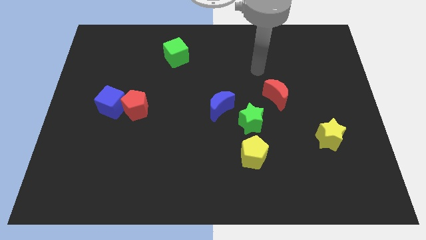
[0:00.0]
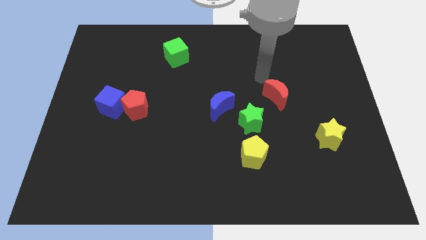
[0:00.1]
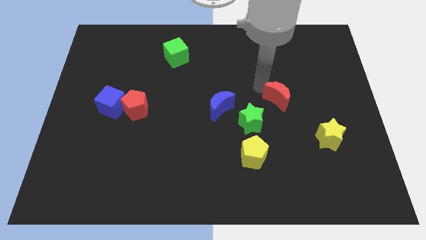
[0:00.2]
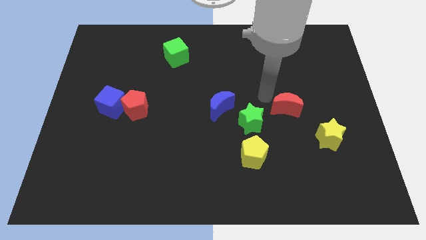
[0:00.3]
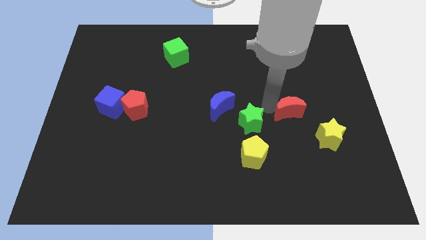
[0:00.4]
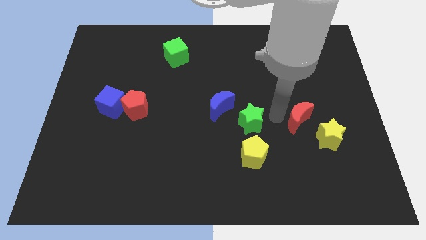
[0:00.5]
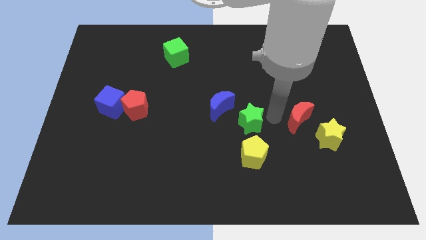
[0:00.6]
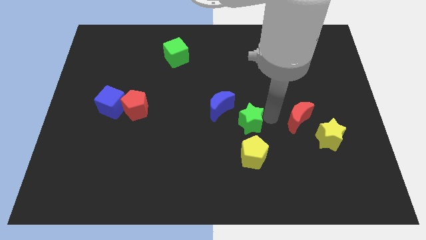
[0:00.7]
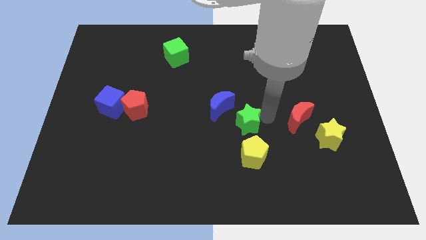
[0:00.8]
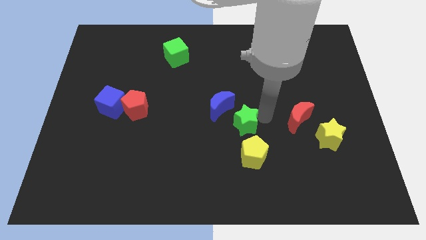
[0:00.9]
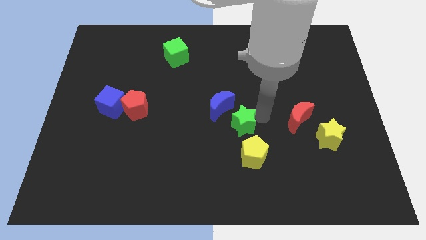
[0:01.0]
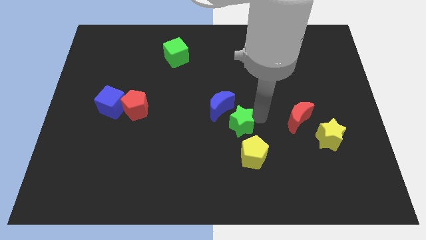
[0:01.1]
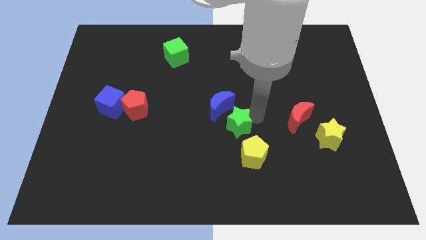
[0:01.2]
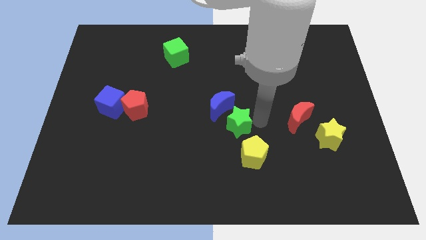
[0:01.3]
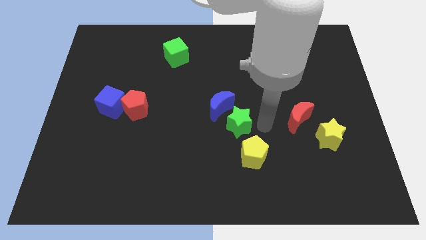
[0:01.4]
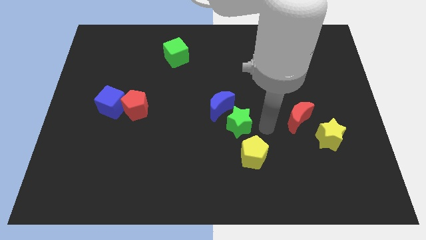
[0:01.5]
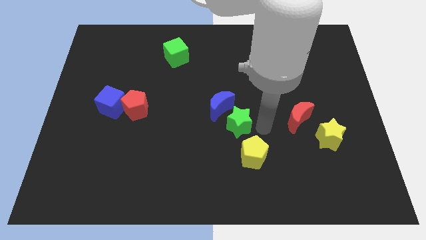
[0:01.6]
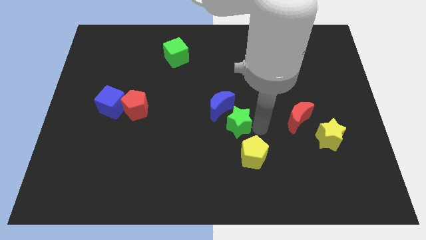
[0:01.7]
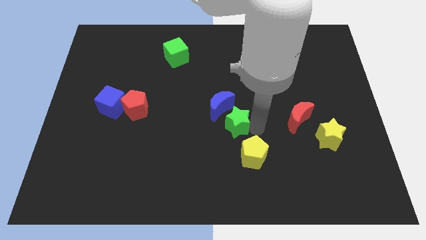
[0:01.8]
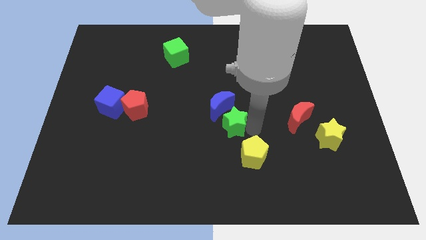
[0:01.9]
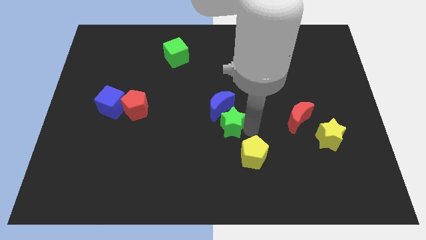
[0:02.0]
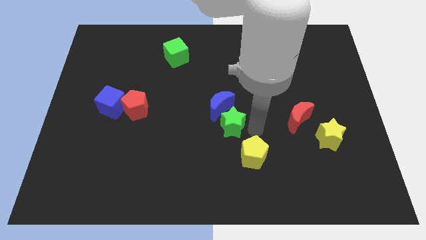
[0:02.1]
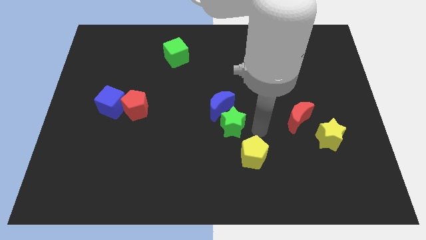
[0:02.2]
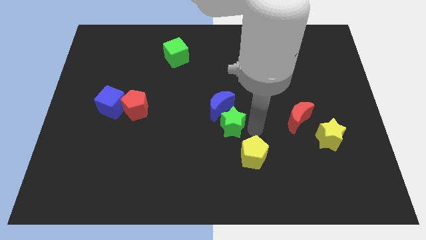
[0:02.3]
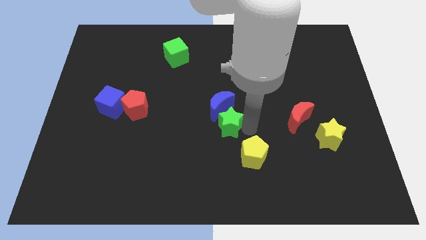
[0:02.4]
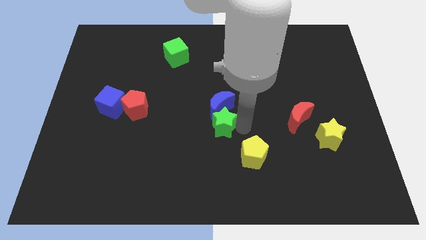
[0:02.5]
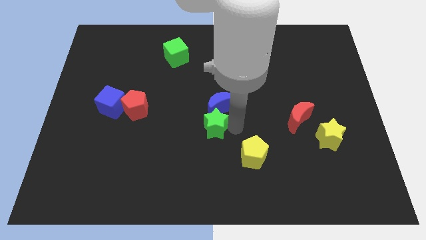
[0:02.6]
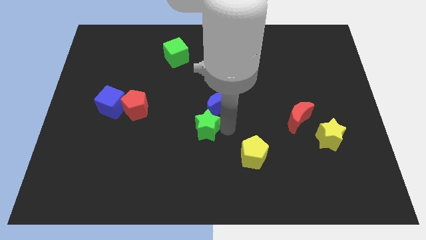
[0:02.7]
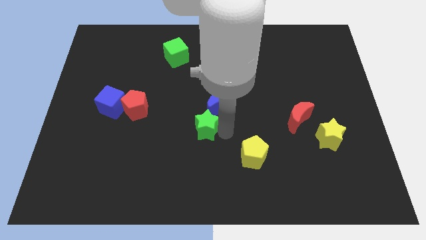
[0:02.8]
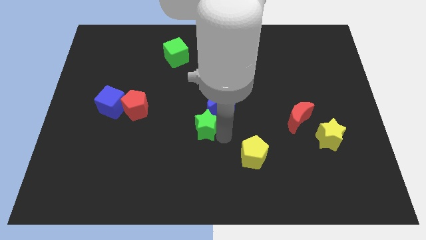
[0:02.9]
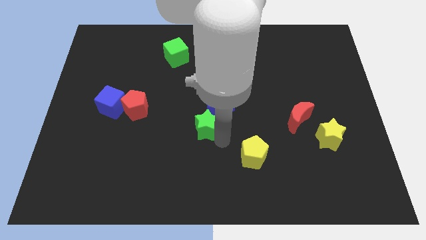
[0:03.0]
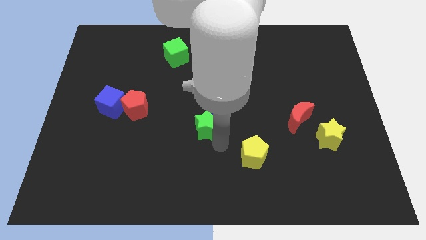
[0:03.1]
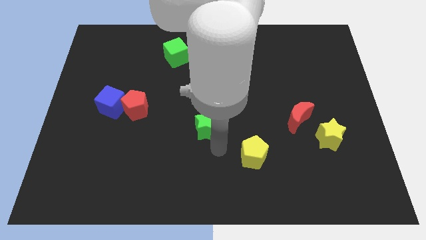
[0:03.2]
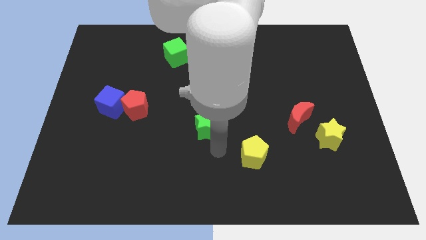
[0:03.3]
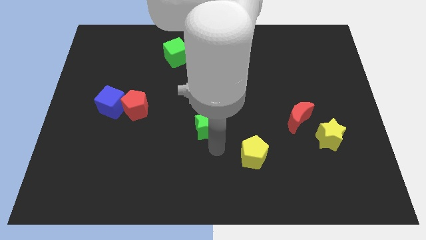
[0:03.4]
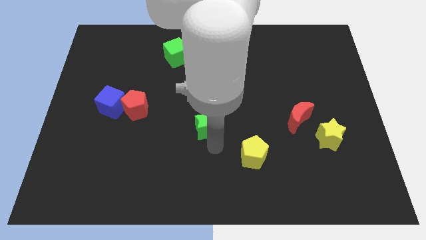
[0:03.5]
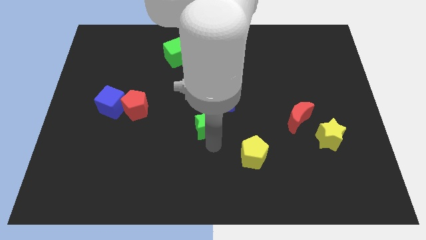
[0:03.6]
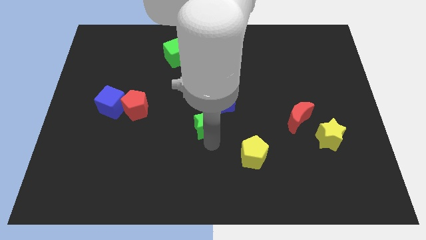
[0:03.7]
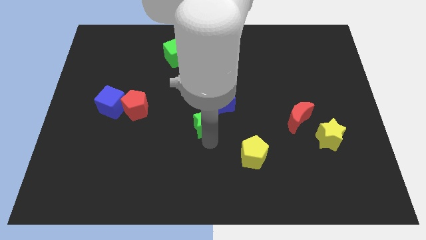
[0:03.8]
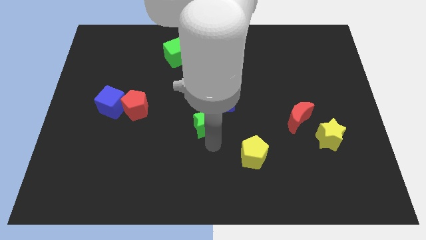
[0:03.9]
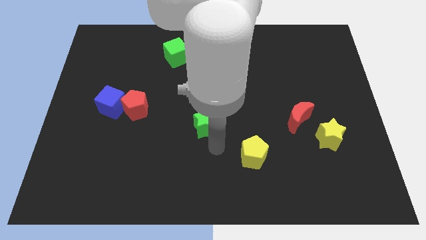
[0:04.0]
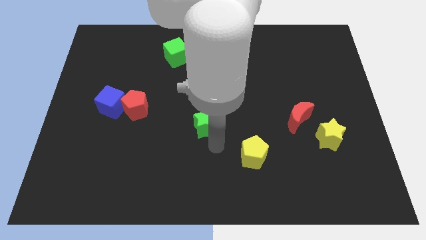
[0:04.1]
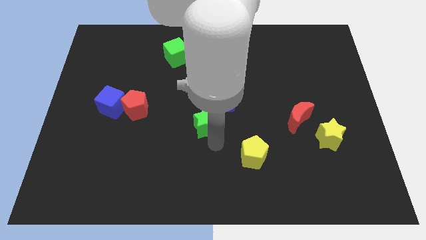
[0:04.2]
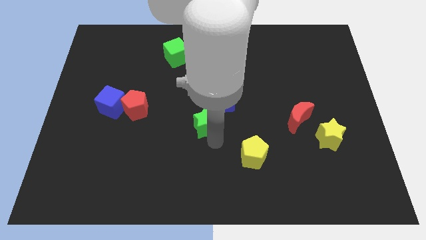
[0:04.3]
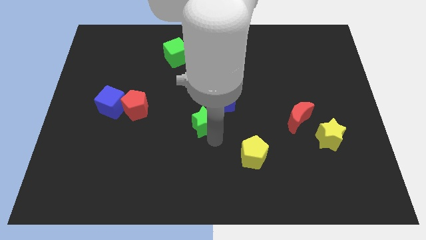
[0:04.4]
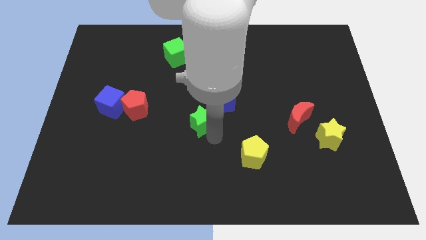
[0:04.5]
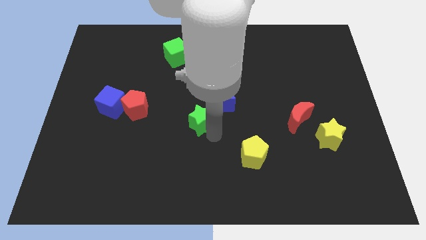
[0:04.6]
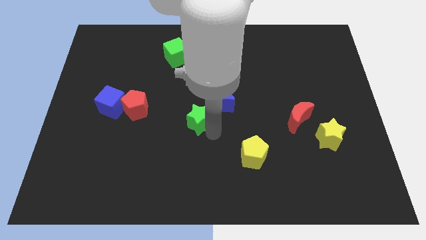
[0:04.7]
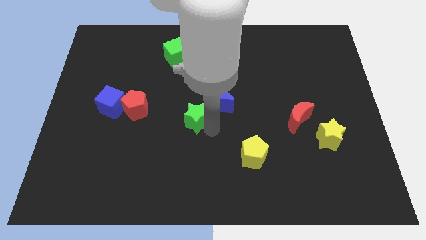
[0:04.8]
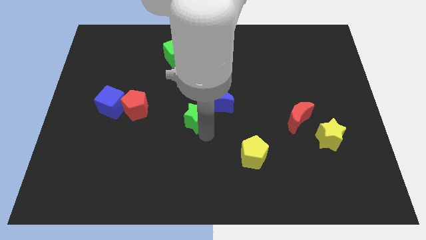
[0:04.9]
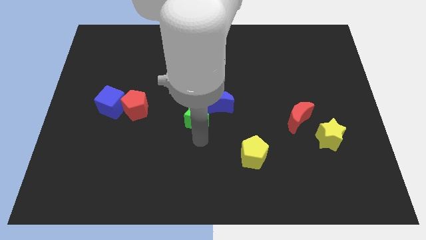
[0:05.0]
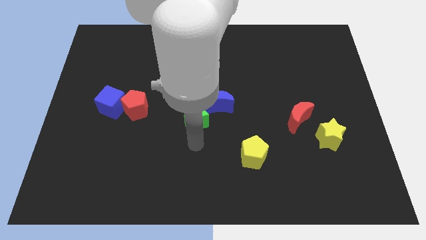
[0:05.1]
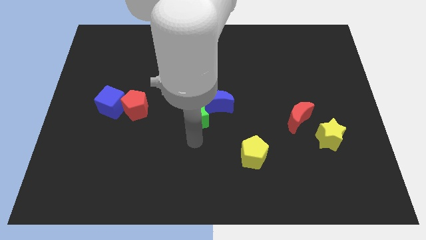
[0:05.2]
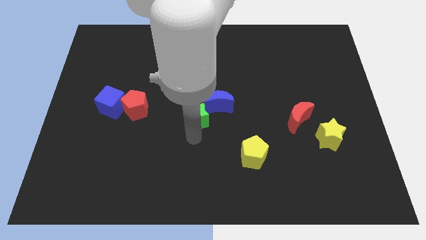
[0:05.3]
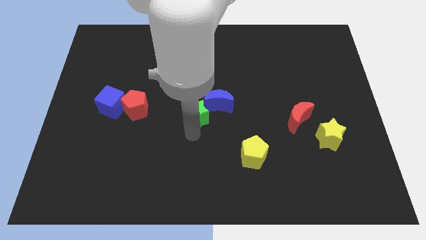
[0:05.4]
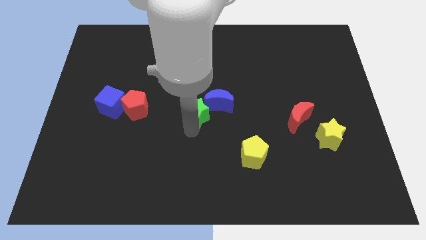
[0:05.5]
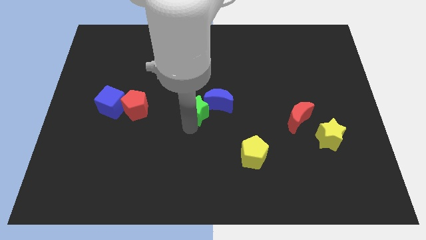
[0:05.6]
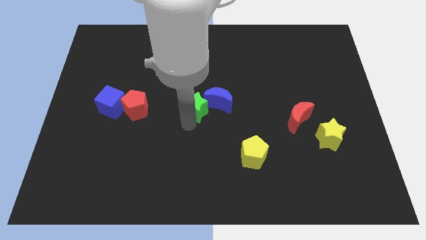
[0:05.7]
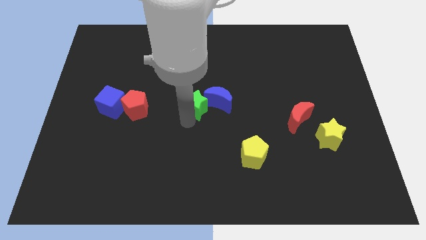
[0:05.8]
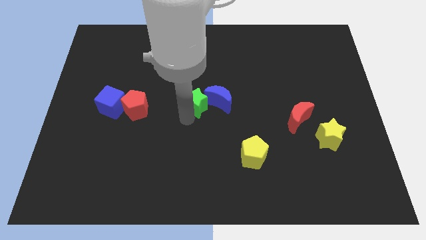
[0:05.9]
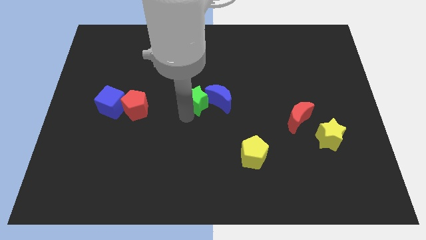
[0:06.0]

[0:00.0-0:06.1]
put the green star to the top left side of the blue moon

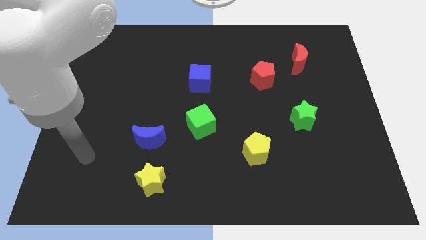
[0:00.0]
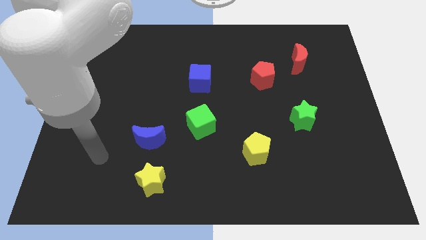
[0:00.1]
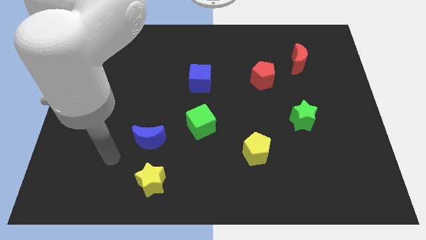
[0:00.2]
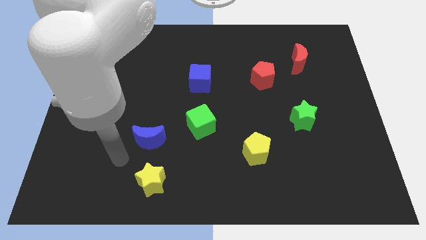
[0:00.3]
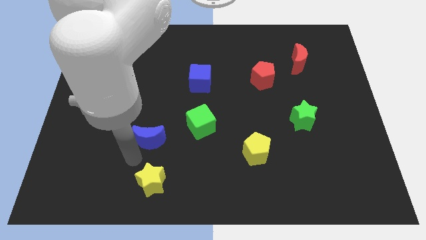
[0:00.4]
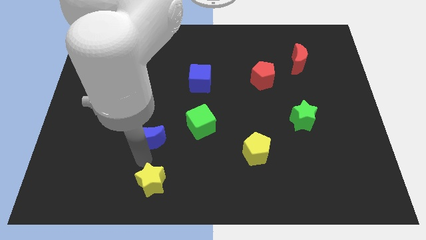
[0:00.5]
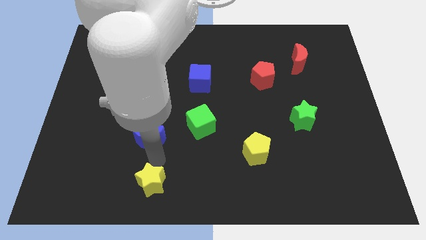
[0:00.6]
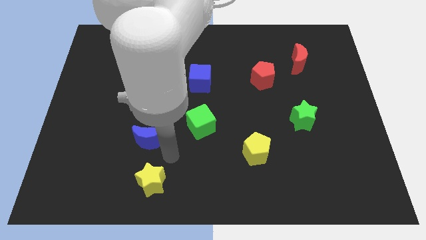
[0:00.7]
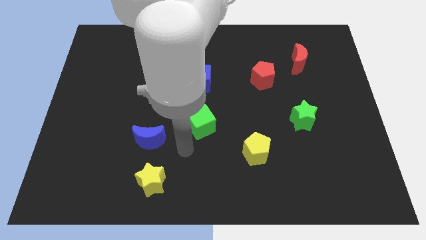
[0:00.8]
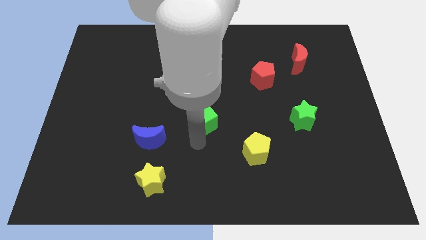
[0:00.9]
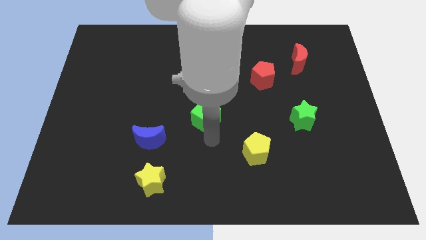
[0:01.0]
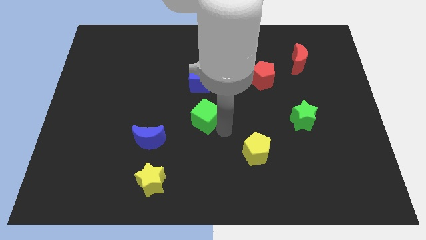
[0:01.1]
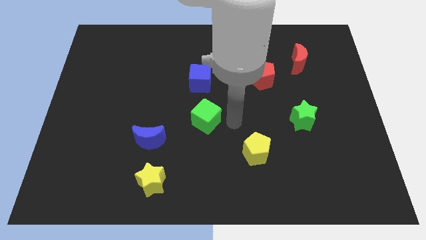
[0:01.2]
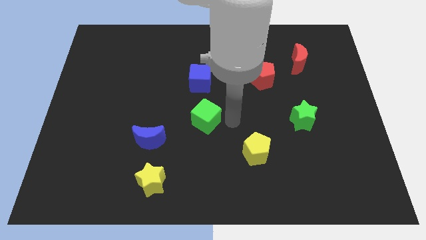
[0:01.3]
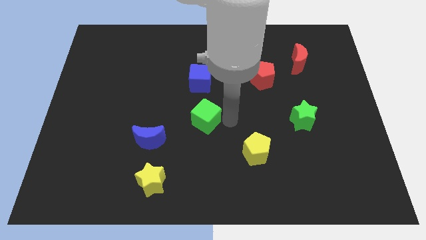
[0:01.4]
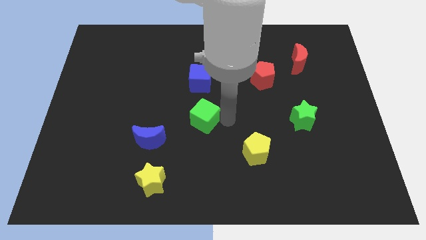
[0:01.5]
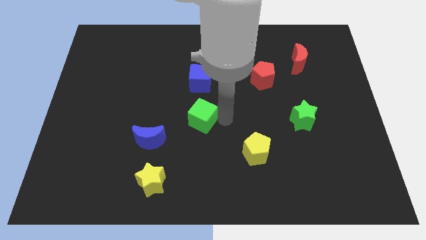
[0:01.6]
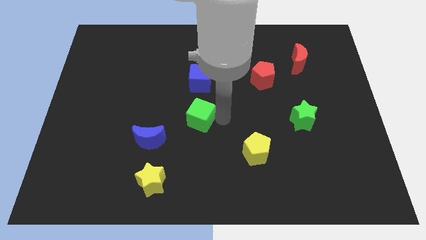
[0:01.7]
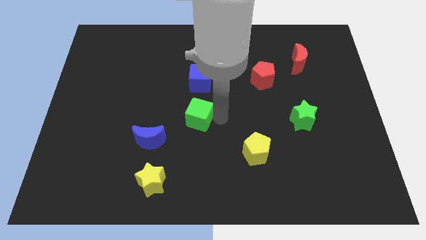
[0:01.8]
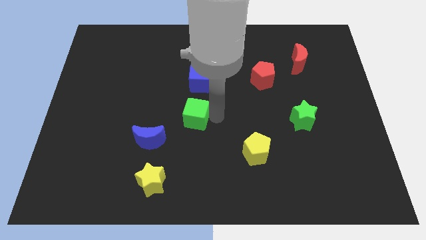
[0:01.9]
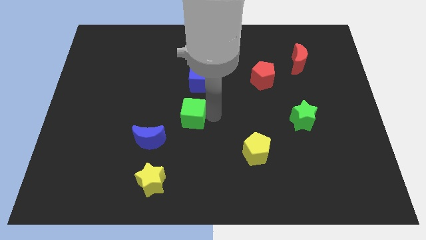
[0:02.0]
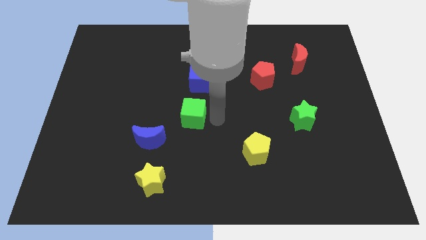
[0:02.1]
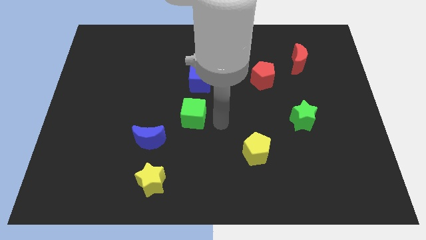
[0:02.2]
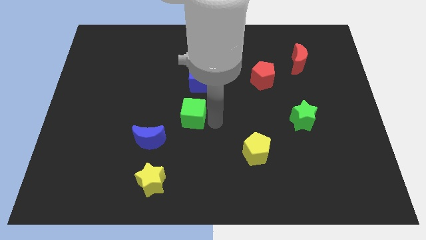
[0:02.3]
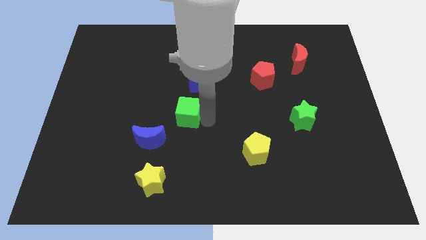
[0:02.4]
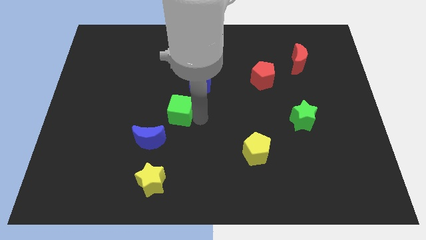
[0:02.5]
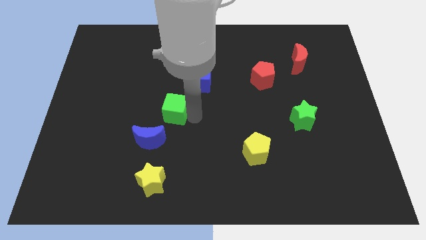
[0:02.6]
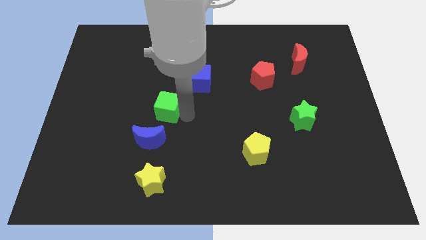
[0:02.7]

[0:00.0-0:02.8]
slide the green cube to the top side of the blue moon
